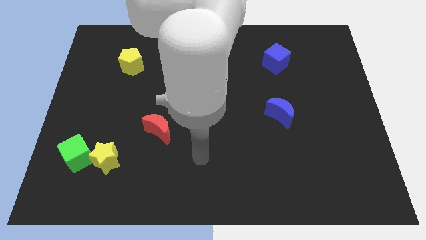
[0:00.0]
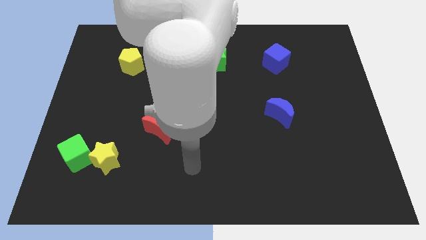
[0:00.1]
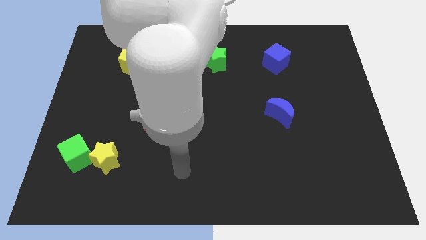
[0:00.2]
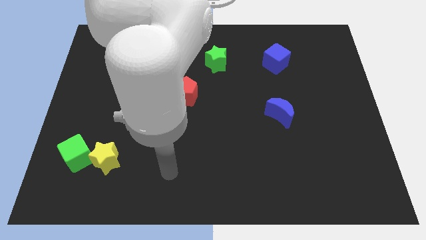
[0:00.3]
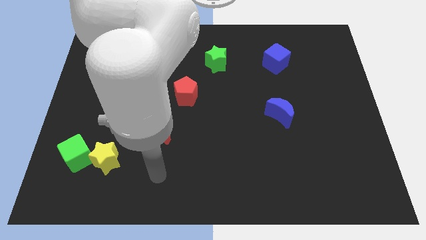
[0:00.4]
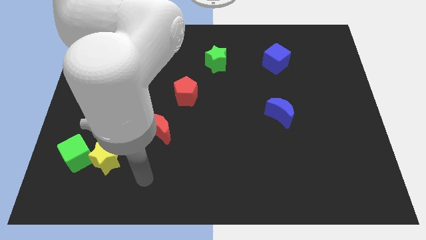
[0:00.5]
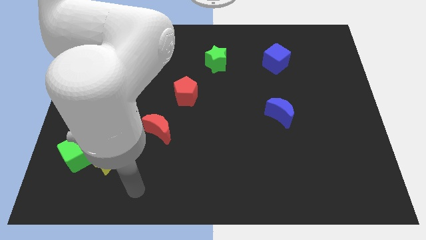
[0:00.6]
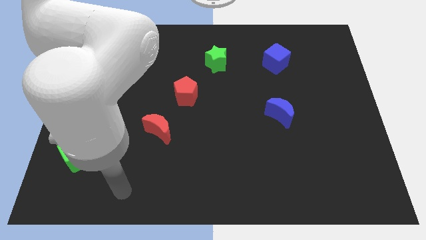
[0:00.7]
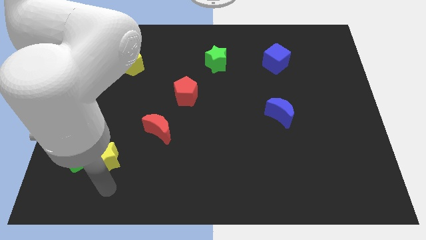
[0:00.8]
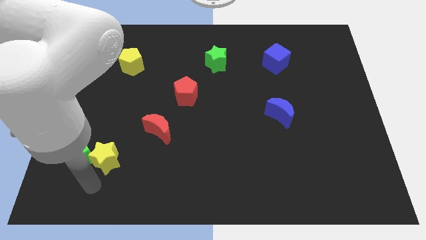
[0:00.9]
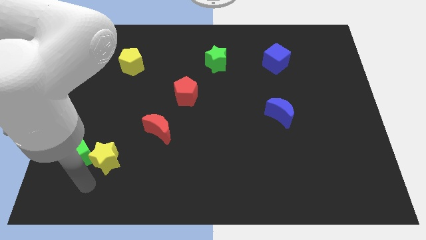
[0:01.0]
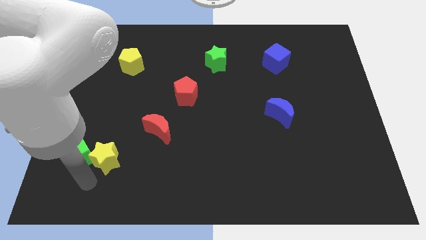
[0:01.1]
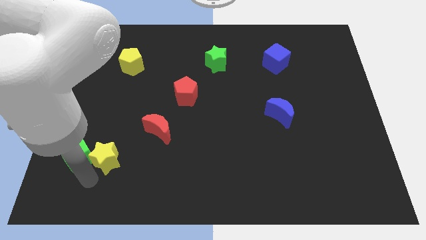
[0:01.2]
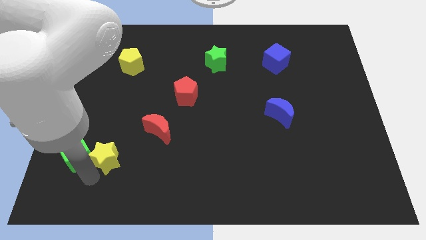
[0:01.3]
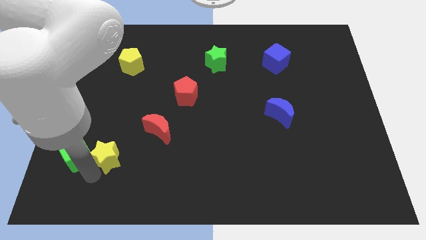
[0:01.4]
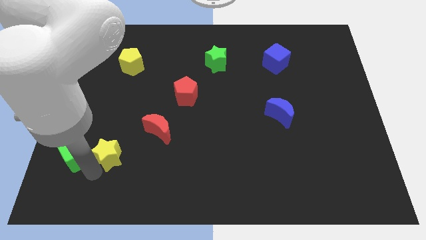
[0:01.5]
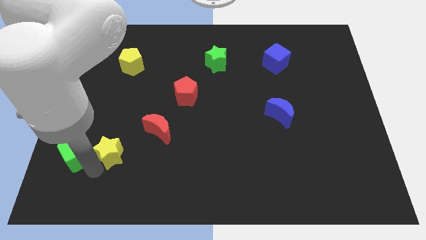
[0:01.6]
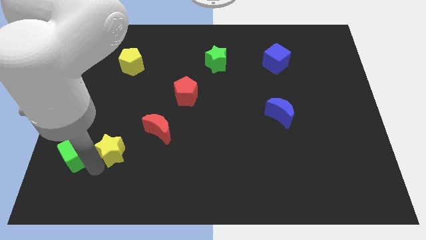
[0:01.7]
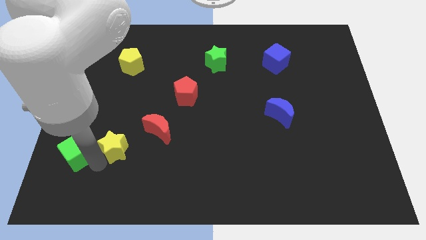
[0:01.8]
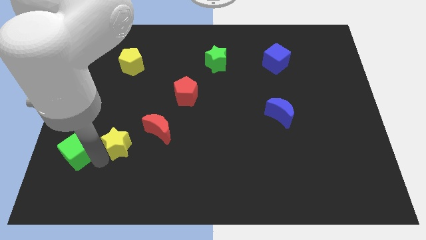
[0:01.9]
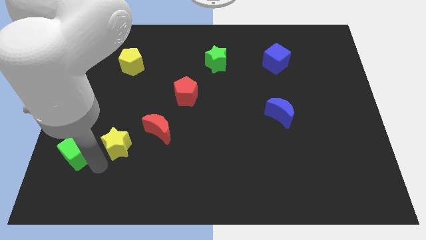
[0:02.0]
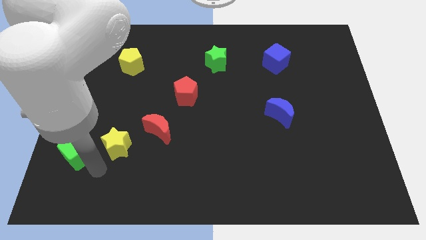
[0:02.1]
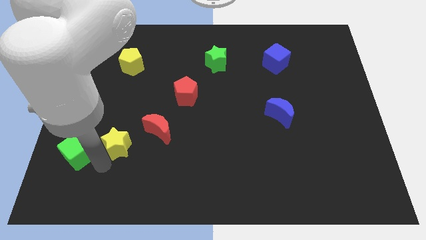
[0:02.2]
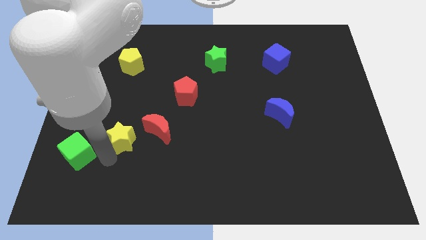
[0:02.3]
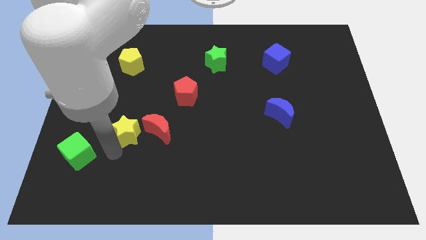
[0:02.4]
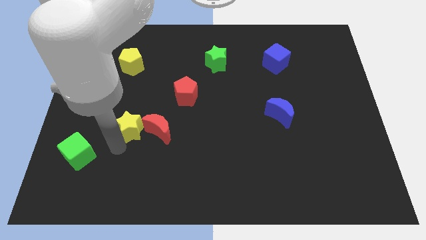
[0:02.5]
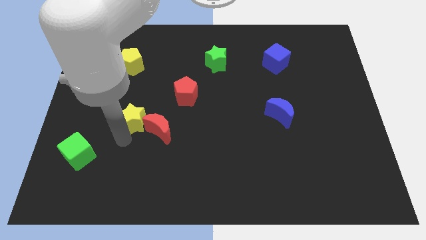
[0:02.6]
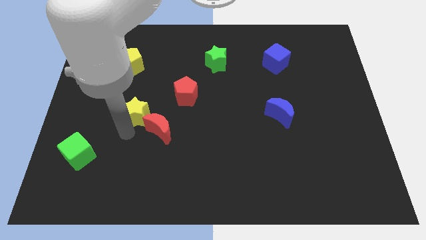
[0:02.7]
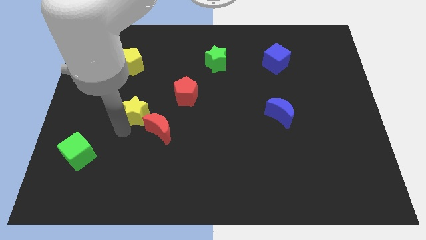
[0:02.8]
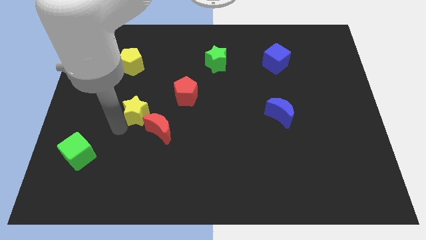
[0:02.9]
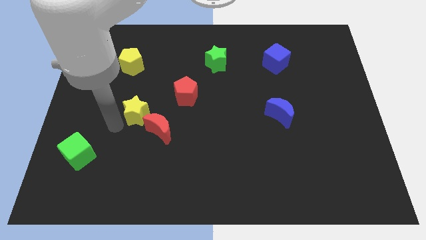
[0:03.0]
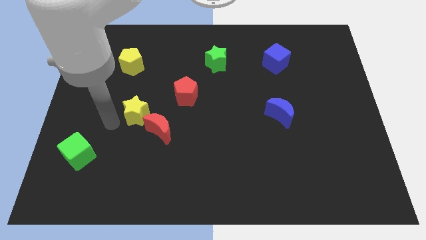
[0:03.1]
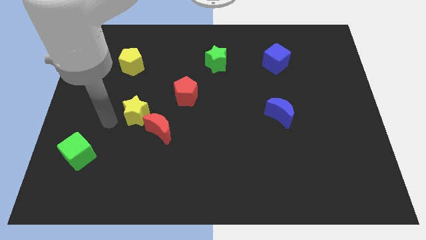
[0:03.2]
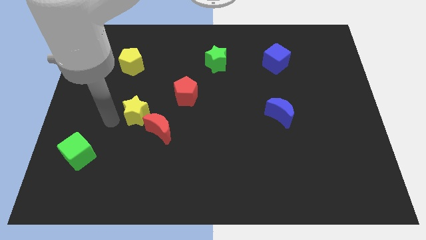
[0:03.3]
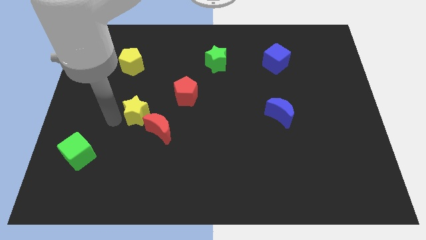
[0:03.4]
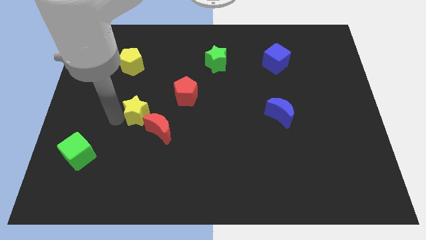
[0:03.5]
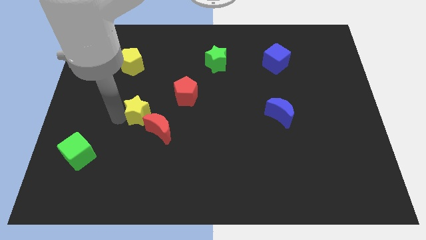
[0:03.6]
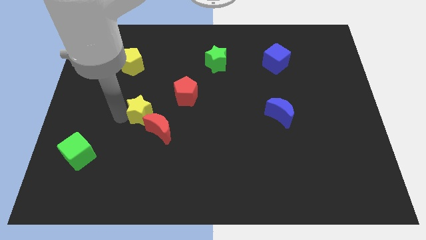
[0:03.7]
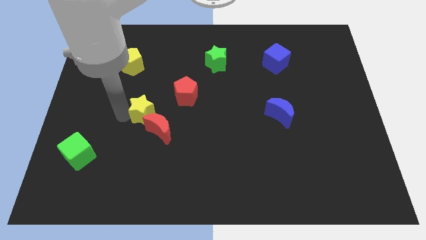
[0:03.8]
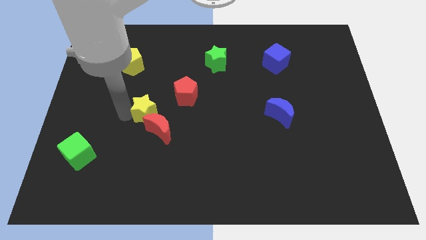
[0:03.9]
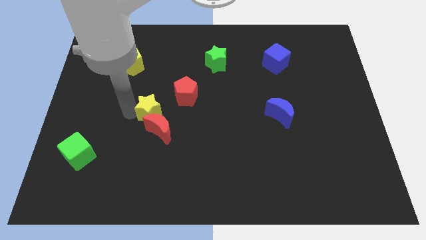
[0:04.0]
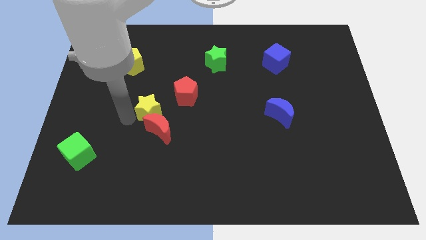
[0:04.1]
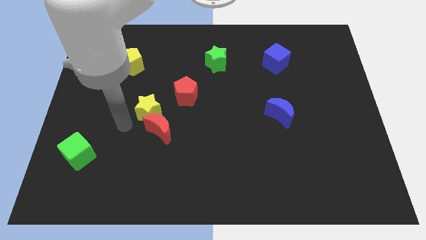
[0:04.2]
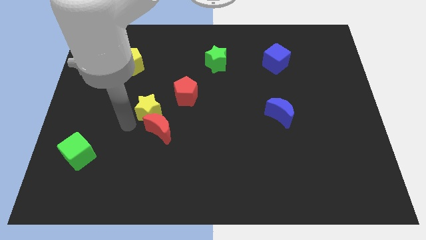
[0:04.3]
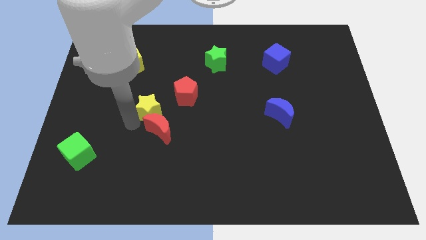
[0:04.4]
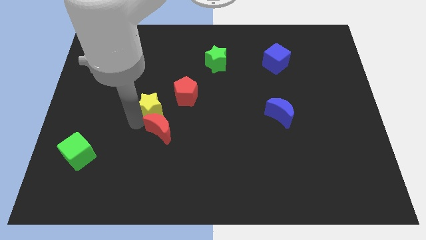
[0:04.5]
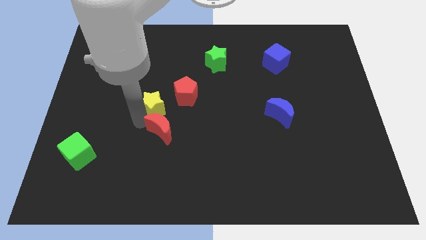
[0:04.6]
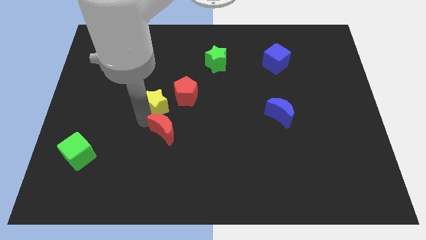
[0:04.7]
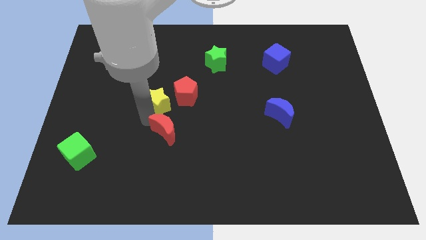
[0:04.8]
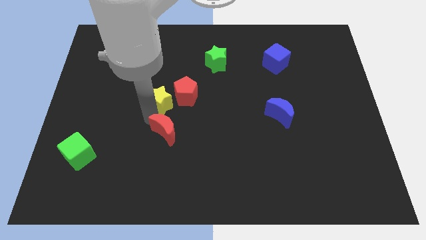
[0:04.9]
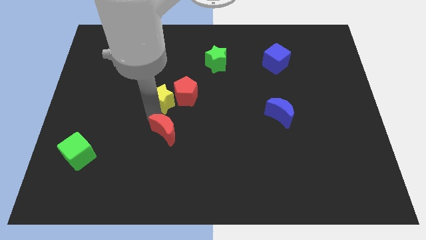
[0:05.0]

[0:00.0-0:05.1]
move the yellow star close to the red pentagon
